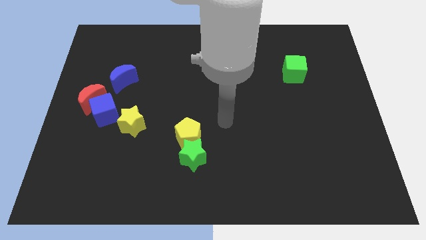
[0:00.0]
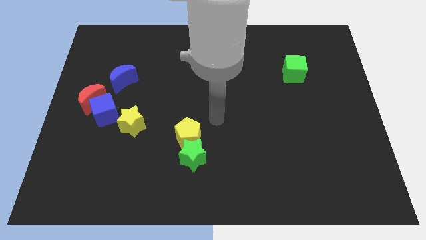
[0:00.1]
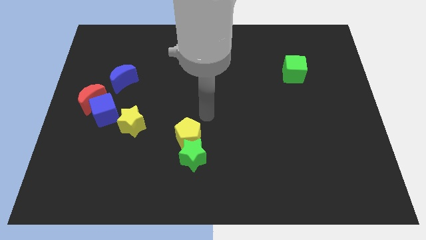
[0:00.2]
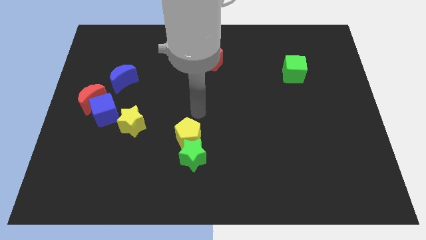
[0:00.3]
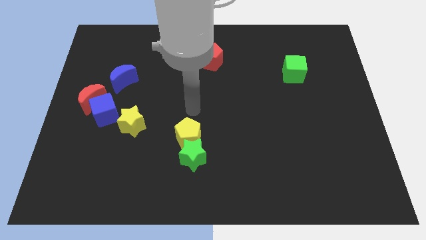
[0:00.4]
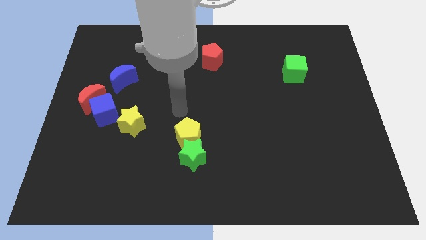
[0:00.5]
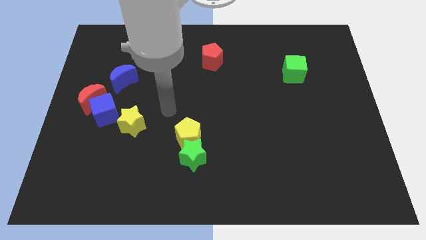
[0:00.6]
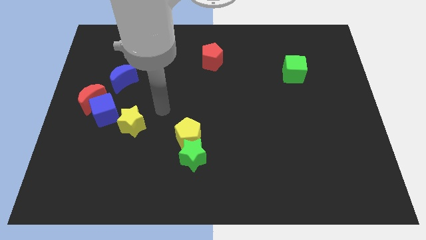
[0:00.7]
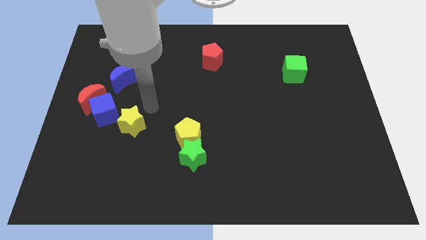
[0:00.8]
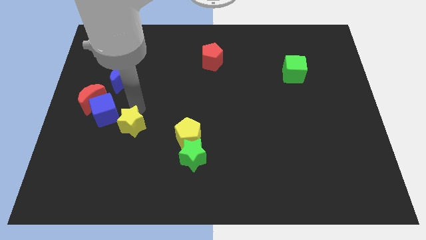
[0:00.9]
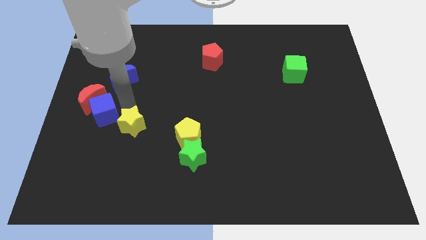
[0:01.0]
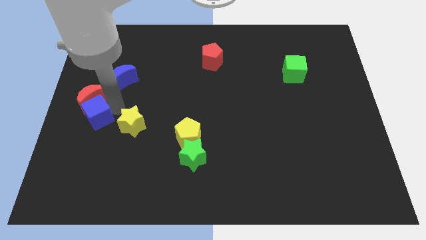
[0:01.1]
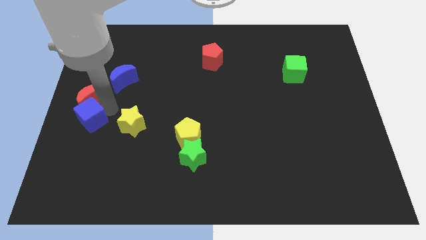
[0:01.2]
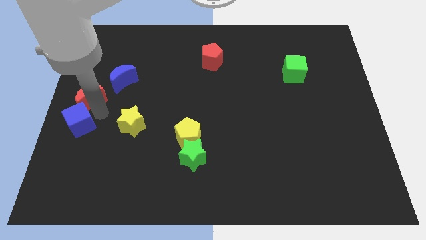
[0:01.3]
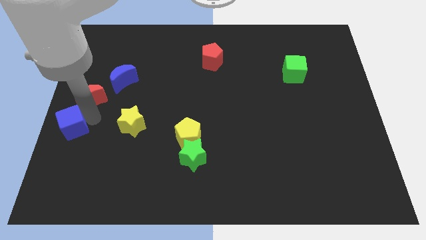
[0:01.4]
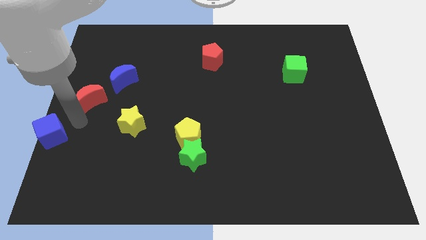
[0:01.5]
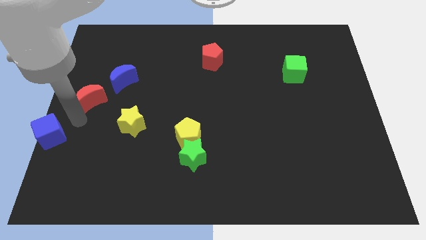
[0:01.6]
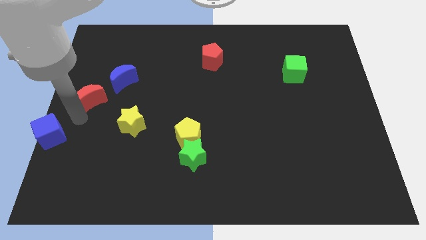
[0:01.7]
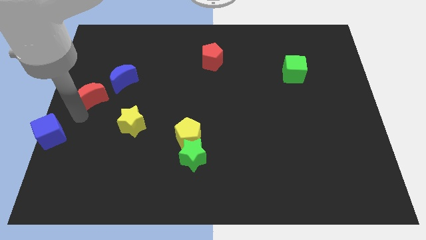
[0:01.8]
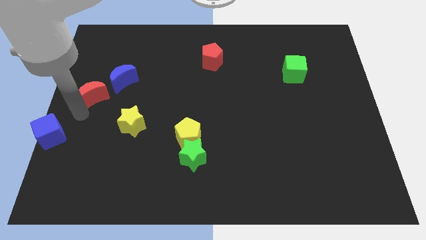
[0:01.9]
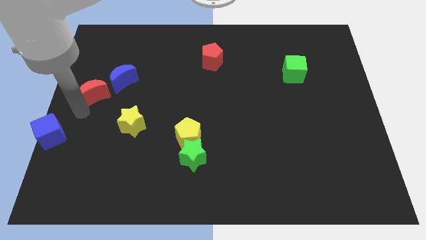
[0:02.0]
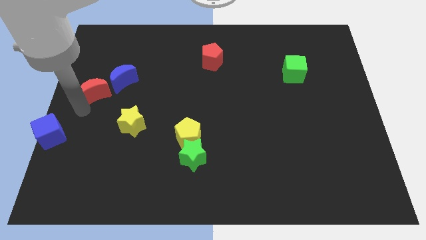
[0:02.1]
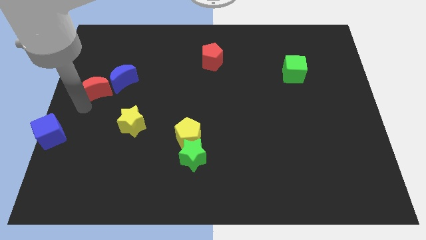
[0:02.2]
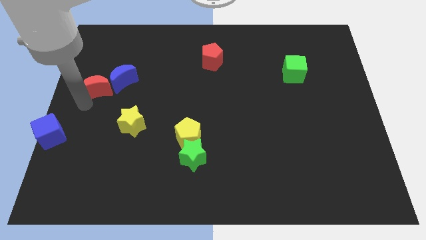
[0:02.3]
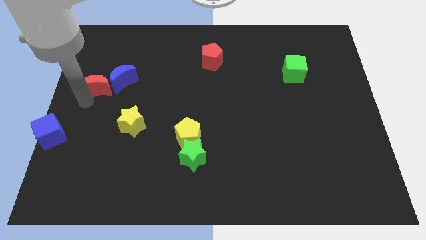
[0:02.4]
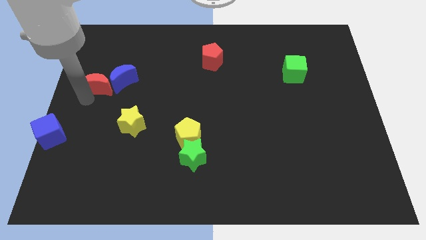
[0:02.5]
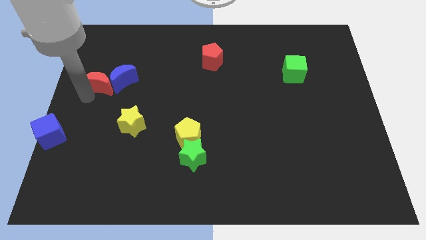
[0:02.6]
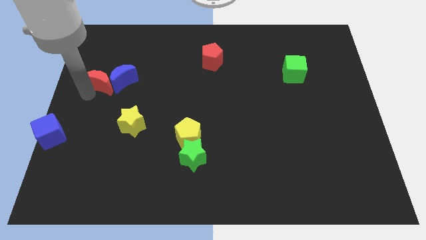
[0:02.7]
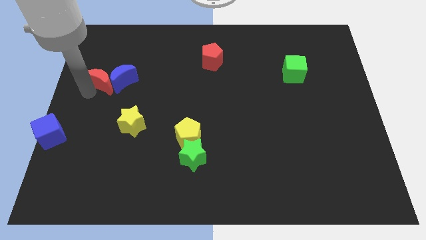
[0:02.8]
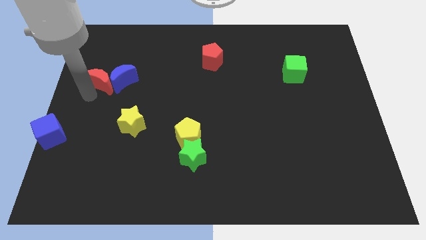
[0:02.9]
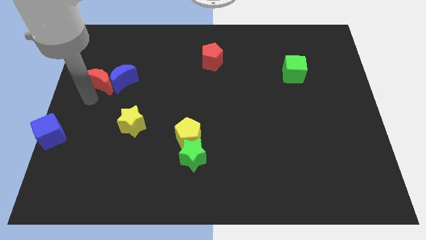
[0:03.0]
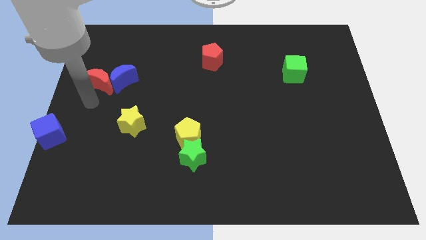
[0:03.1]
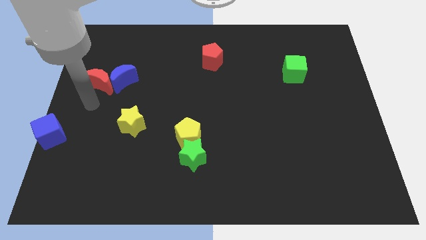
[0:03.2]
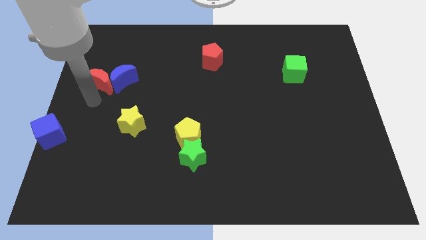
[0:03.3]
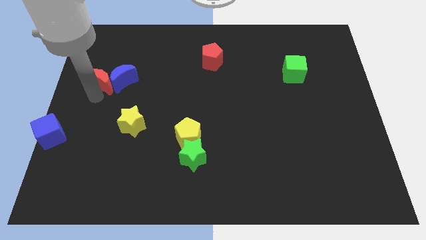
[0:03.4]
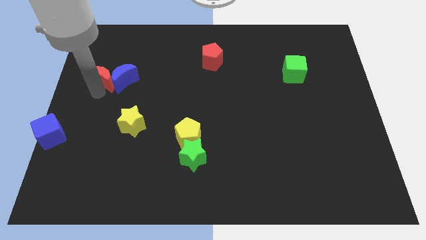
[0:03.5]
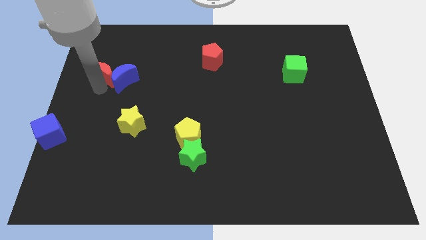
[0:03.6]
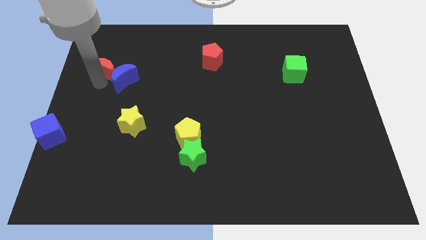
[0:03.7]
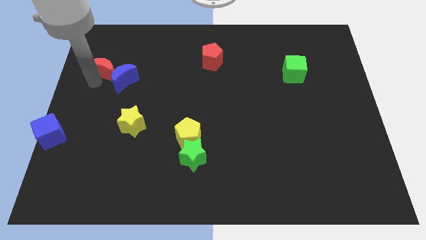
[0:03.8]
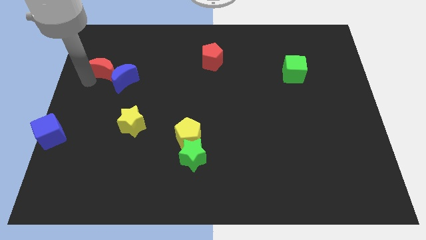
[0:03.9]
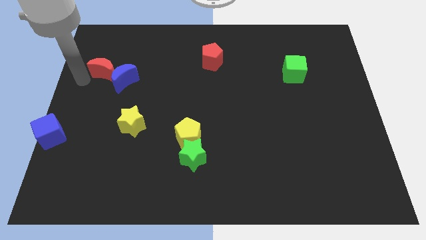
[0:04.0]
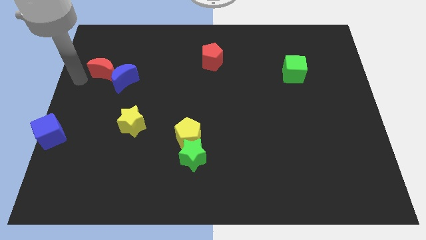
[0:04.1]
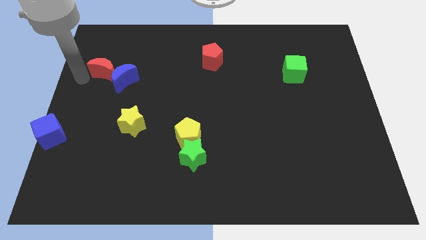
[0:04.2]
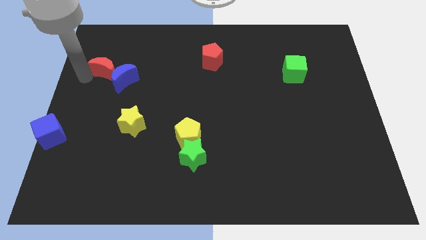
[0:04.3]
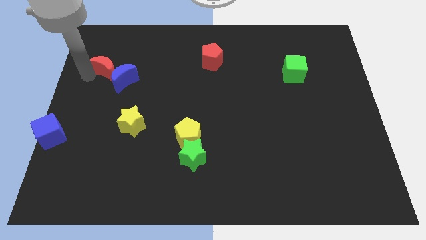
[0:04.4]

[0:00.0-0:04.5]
push the red moon slightly upwards and right diagonally

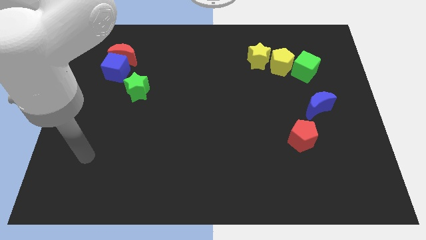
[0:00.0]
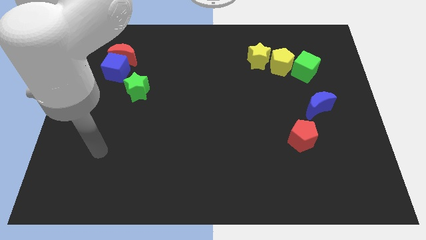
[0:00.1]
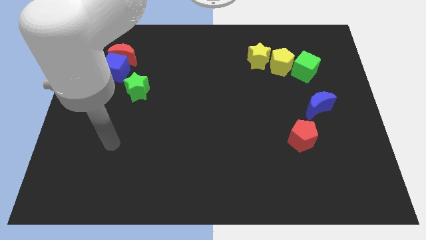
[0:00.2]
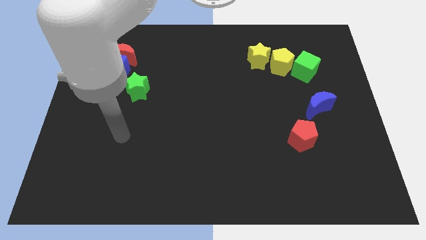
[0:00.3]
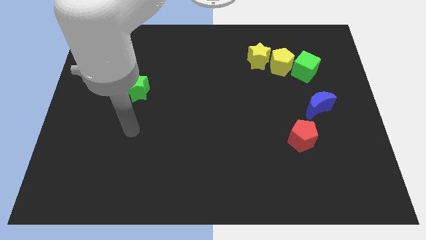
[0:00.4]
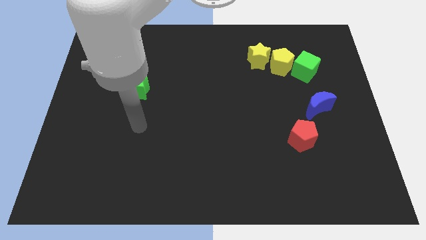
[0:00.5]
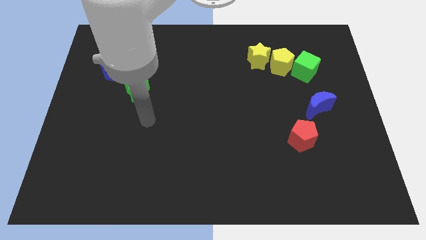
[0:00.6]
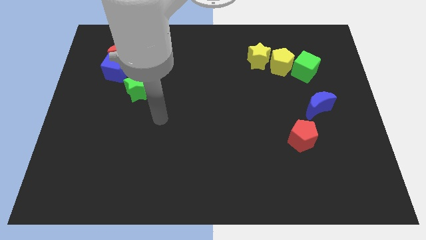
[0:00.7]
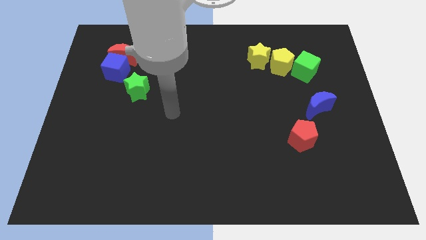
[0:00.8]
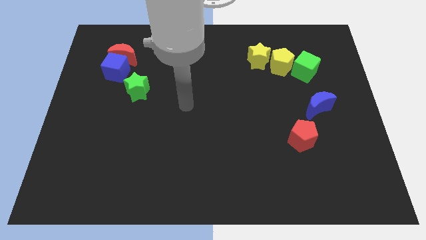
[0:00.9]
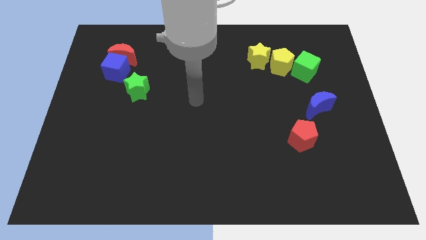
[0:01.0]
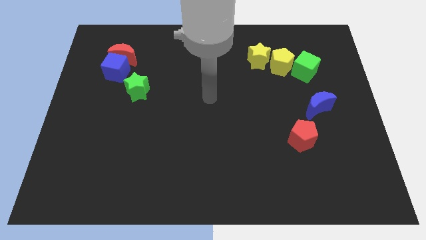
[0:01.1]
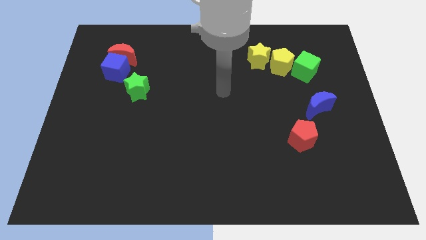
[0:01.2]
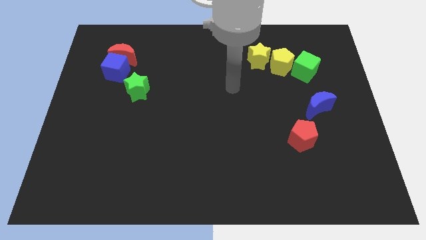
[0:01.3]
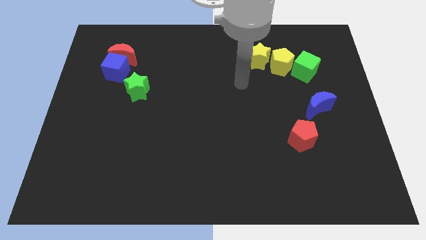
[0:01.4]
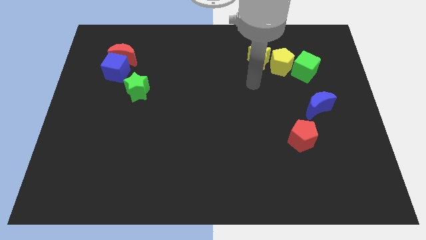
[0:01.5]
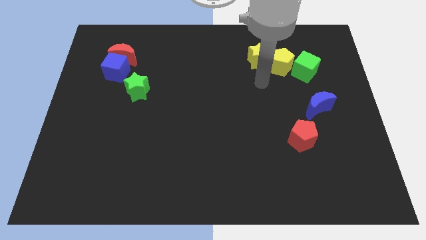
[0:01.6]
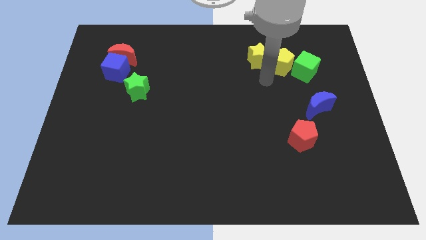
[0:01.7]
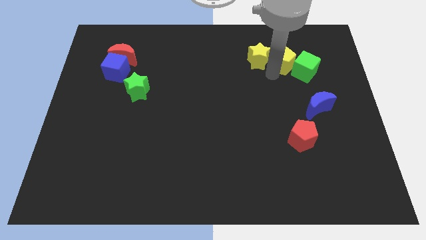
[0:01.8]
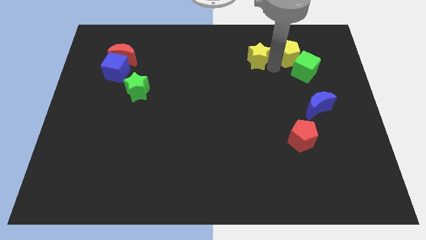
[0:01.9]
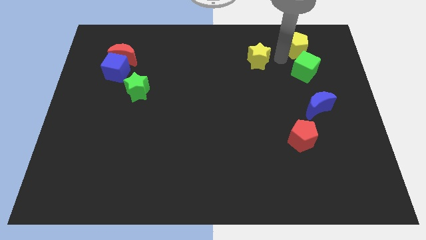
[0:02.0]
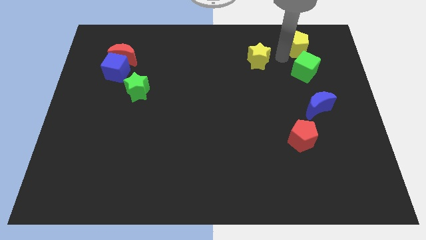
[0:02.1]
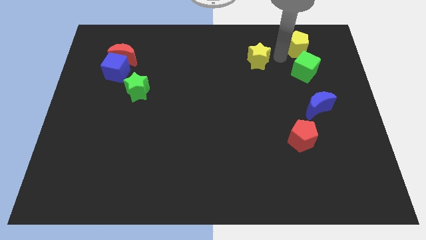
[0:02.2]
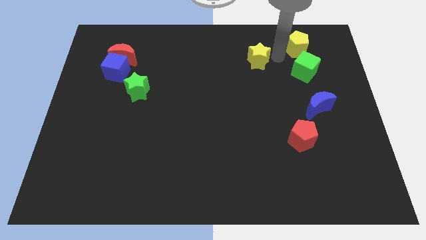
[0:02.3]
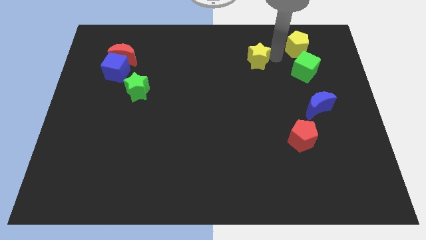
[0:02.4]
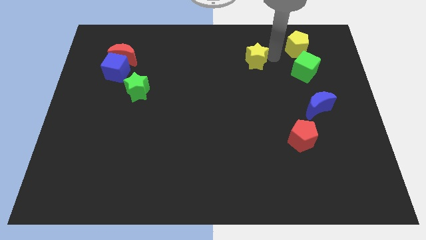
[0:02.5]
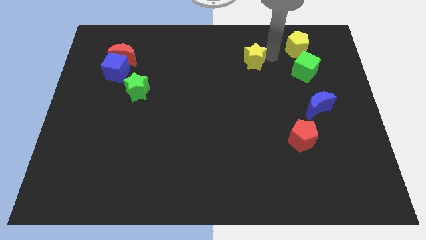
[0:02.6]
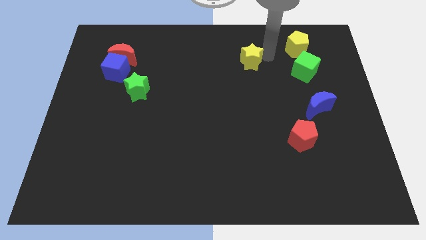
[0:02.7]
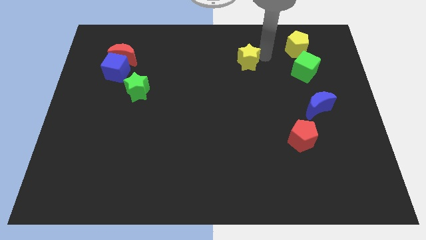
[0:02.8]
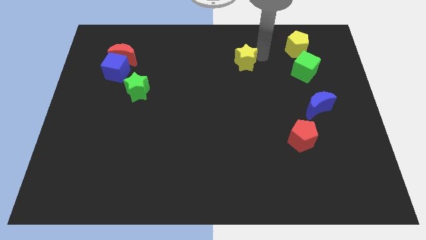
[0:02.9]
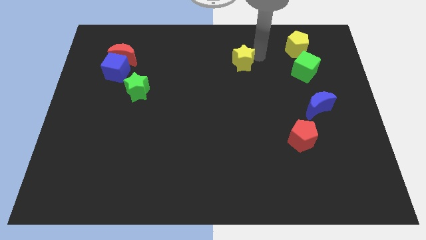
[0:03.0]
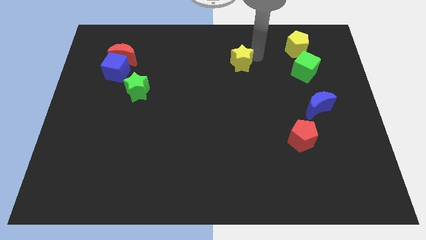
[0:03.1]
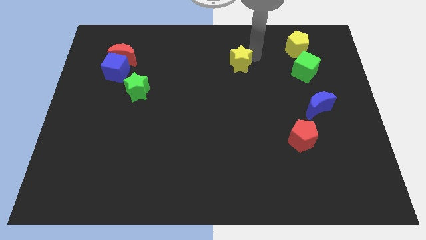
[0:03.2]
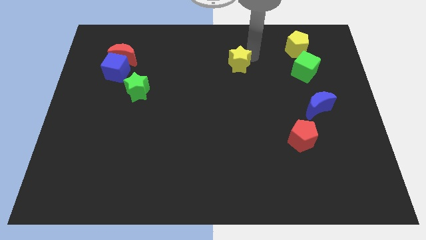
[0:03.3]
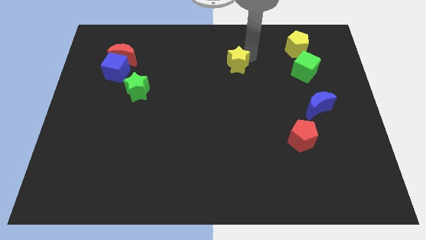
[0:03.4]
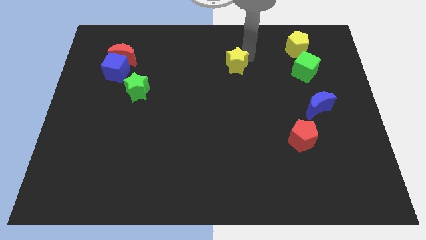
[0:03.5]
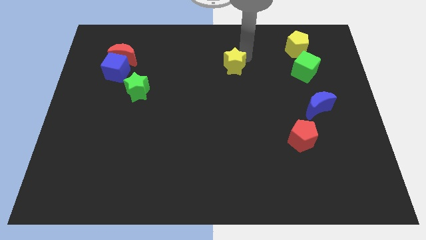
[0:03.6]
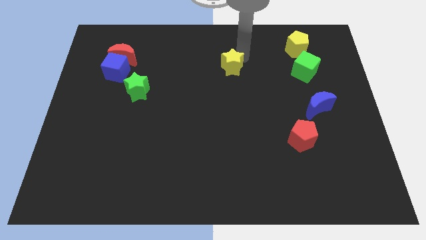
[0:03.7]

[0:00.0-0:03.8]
slightly move the yellow star left

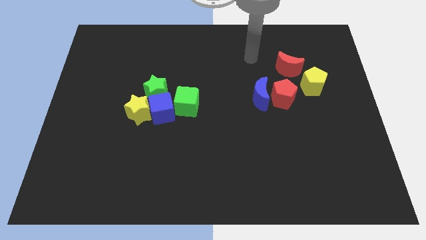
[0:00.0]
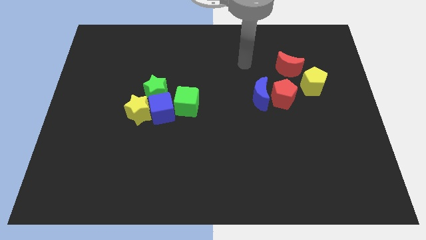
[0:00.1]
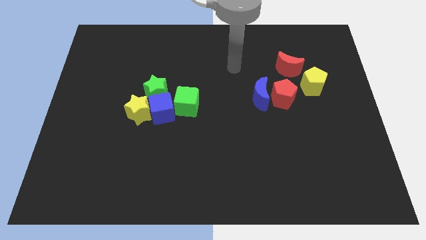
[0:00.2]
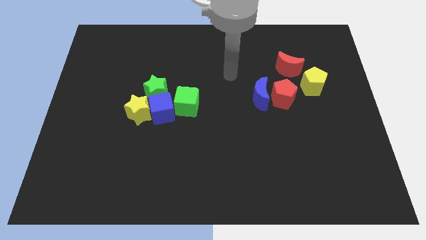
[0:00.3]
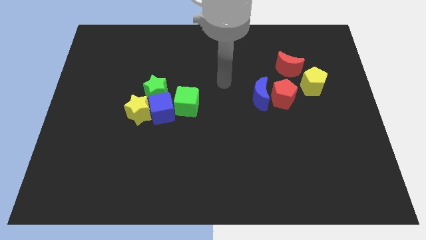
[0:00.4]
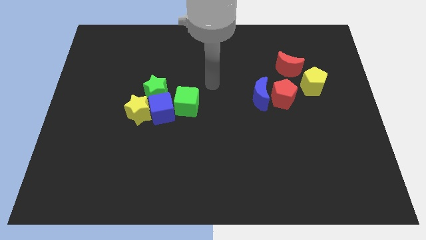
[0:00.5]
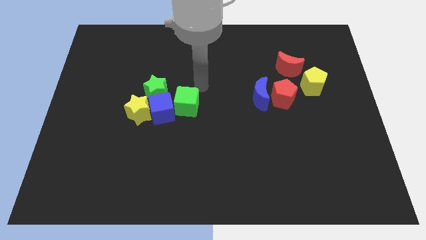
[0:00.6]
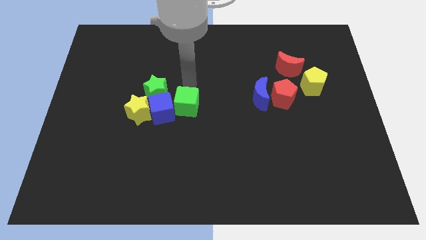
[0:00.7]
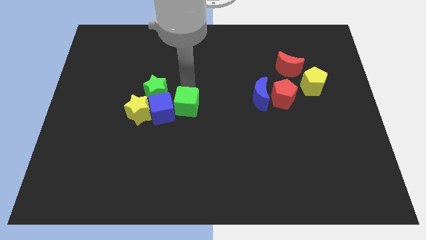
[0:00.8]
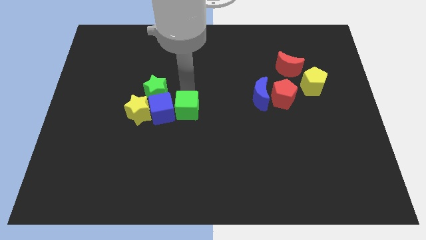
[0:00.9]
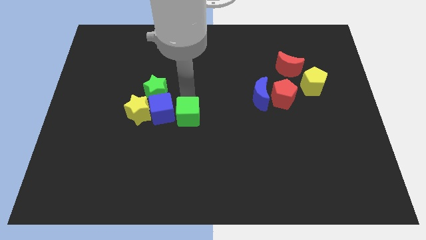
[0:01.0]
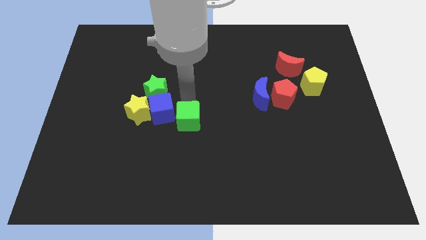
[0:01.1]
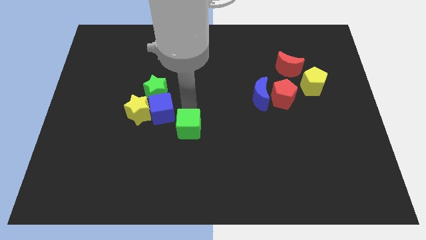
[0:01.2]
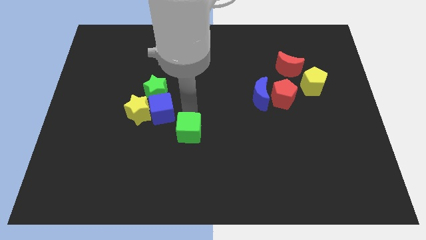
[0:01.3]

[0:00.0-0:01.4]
move the green cube a little bit down
